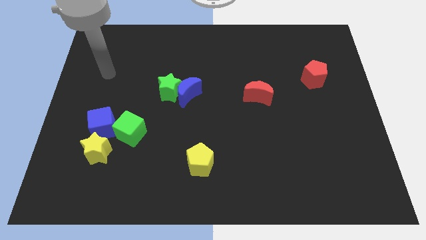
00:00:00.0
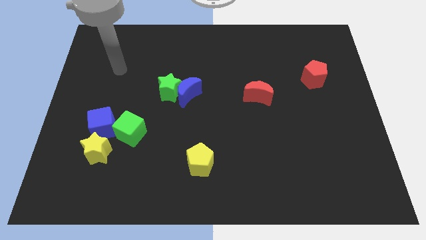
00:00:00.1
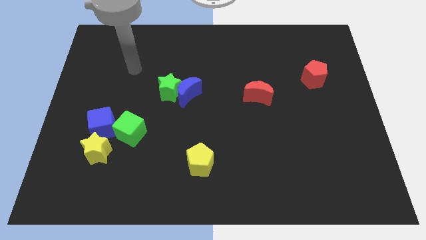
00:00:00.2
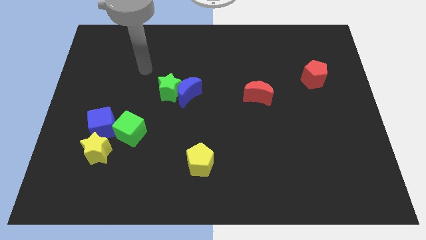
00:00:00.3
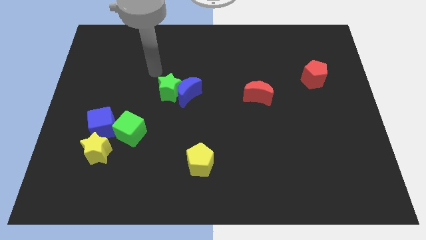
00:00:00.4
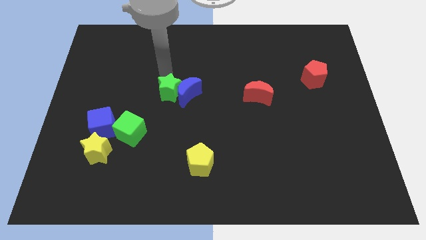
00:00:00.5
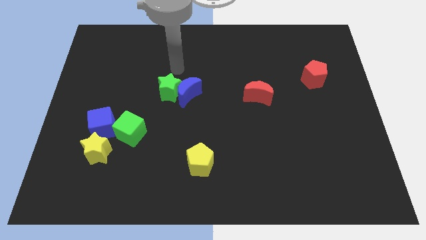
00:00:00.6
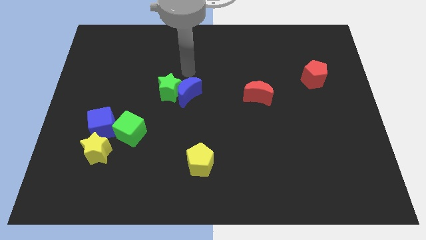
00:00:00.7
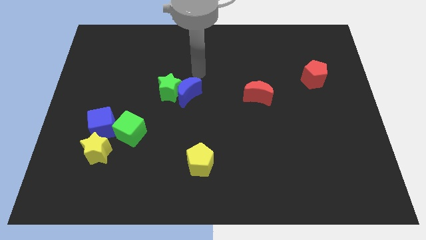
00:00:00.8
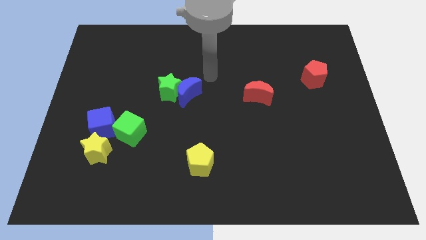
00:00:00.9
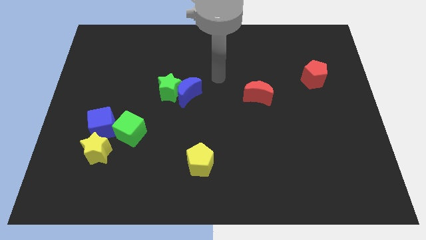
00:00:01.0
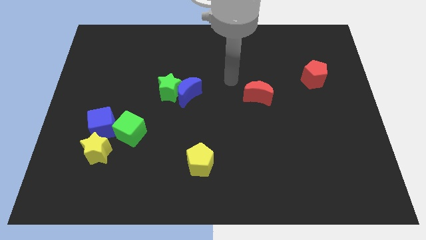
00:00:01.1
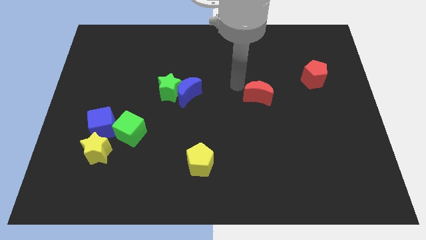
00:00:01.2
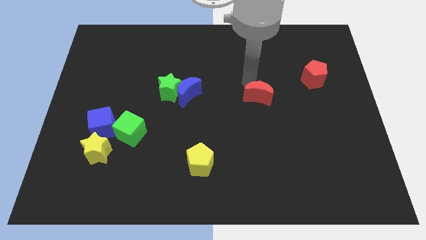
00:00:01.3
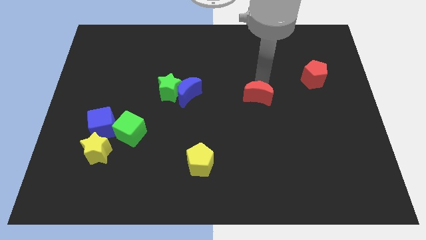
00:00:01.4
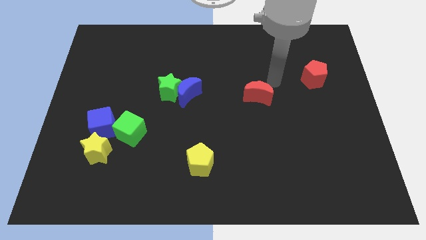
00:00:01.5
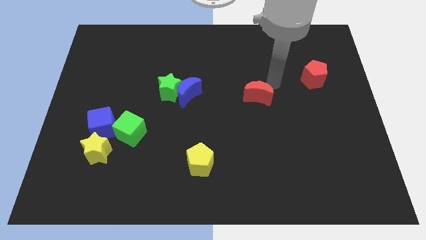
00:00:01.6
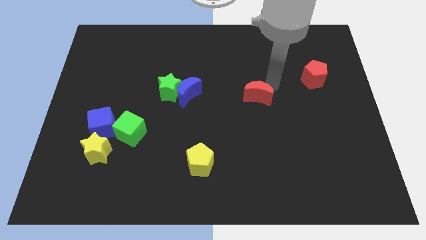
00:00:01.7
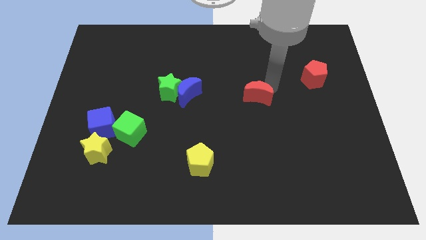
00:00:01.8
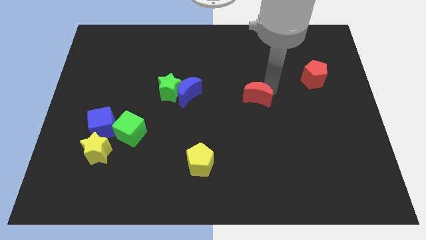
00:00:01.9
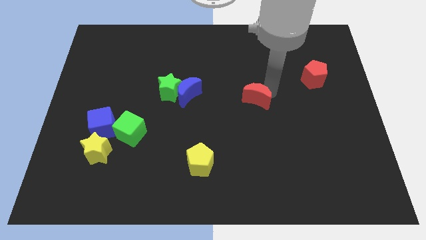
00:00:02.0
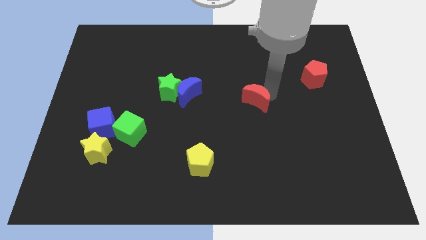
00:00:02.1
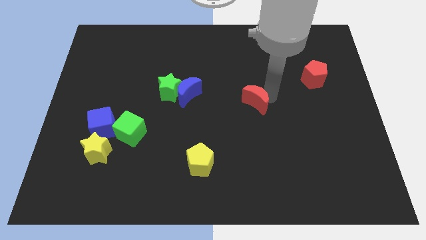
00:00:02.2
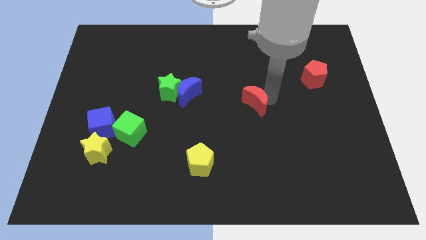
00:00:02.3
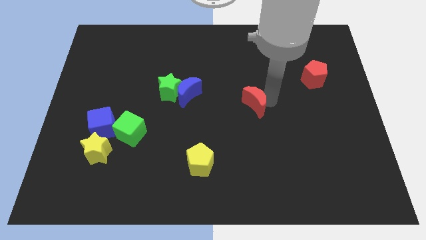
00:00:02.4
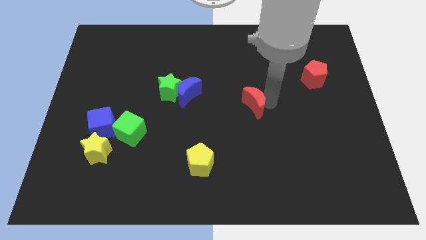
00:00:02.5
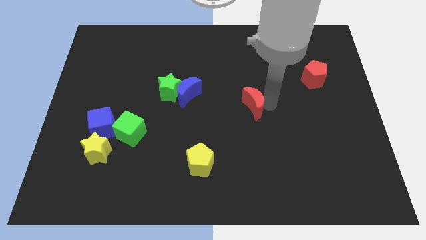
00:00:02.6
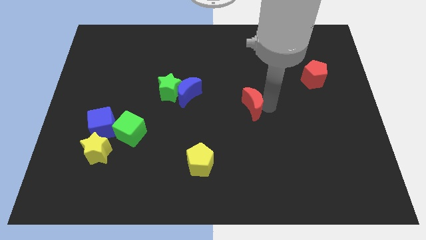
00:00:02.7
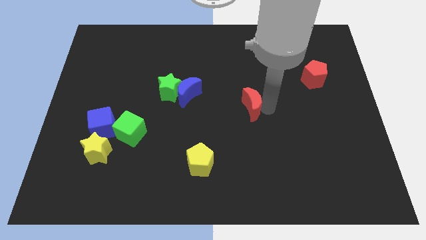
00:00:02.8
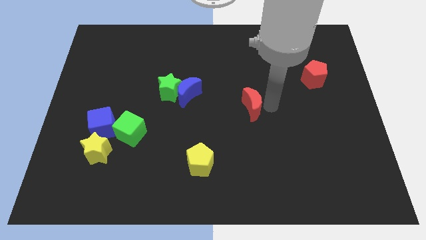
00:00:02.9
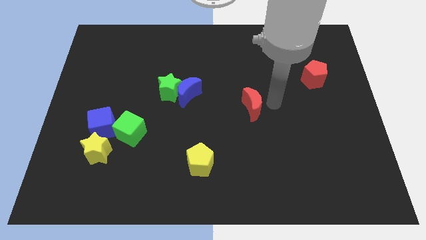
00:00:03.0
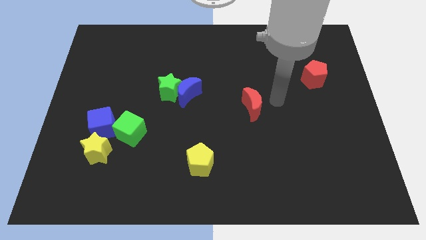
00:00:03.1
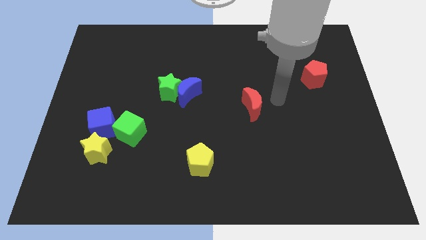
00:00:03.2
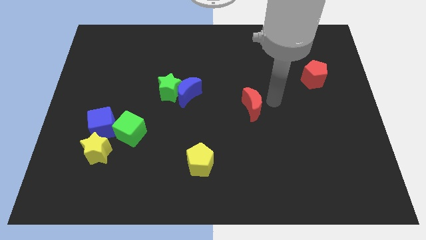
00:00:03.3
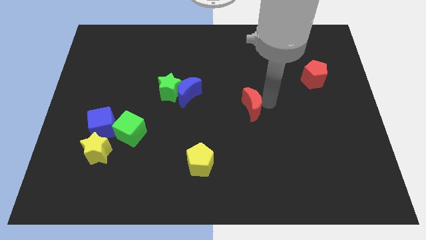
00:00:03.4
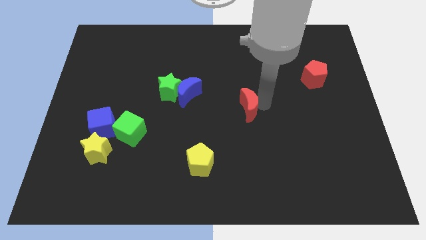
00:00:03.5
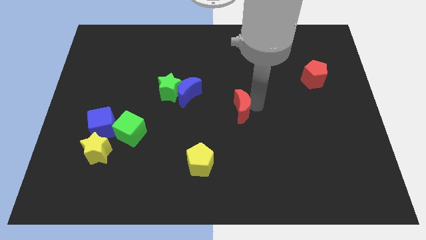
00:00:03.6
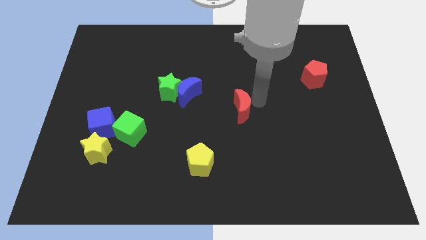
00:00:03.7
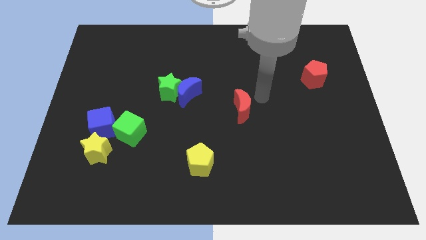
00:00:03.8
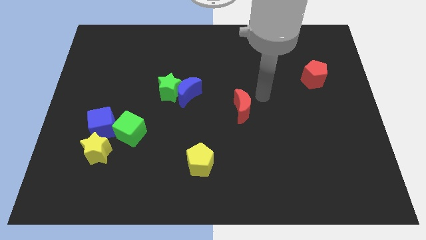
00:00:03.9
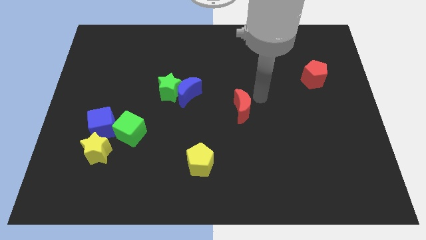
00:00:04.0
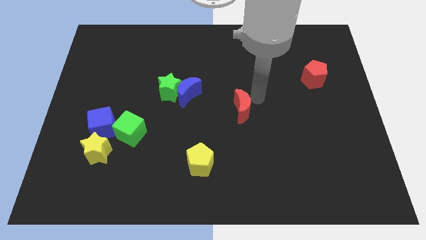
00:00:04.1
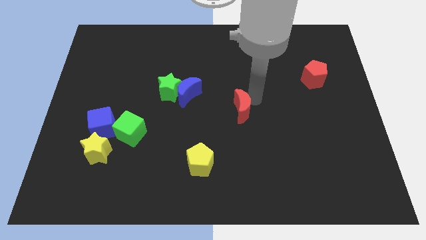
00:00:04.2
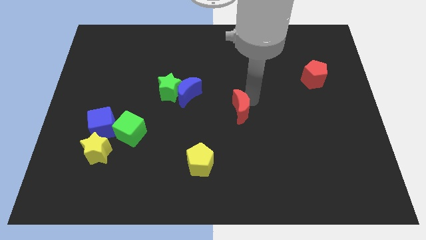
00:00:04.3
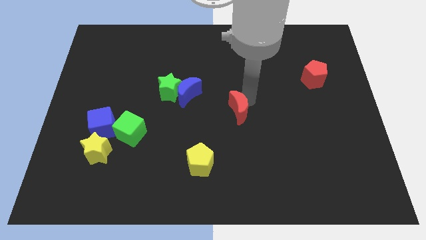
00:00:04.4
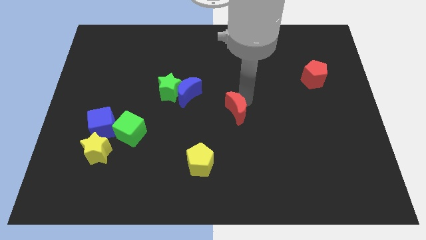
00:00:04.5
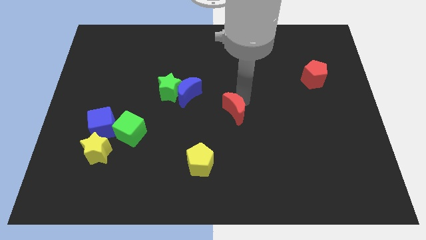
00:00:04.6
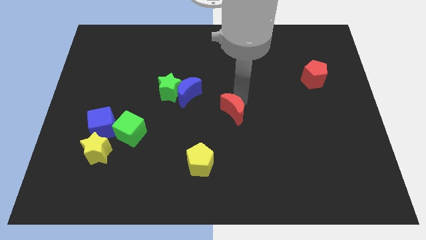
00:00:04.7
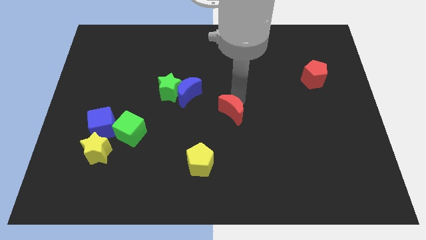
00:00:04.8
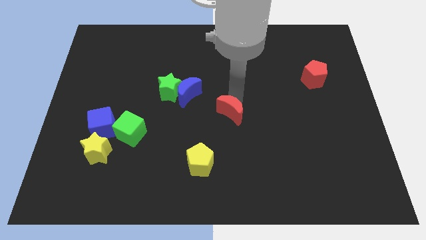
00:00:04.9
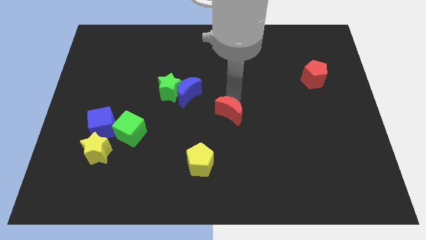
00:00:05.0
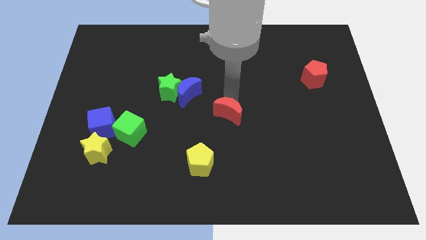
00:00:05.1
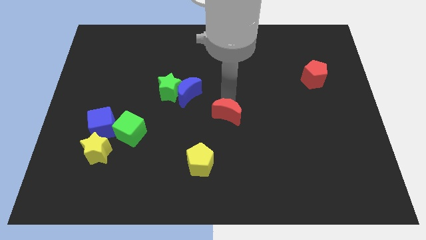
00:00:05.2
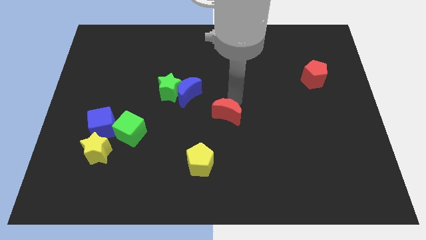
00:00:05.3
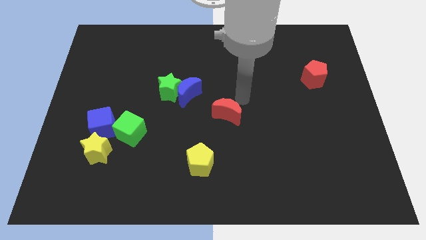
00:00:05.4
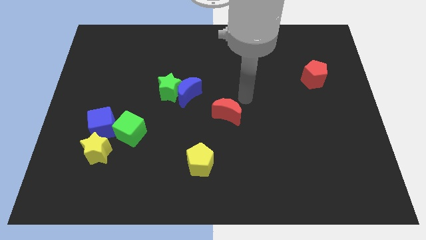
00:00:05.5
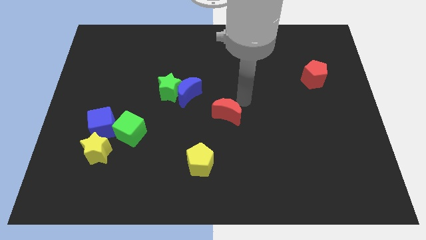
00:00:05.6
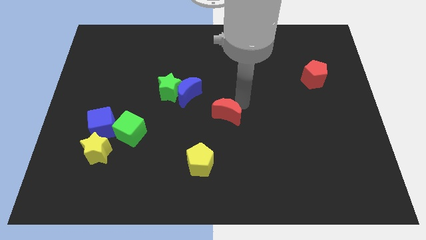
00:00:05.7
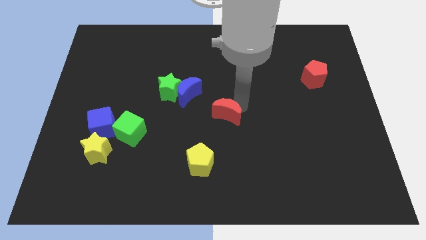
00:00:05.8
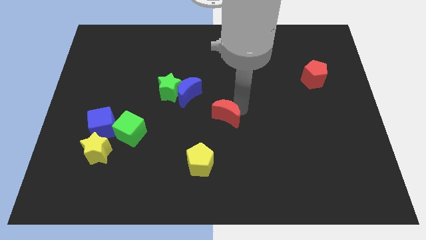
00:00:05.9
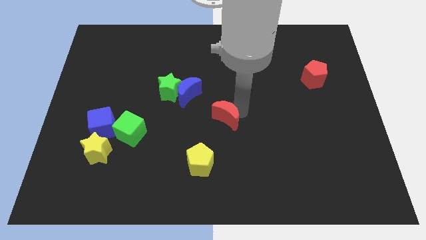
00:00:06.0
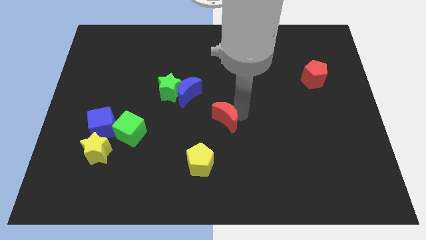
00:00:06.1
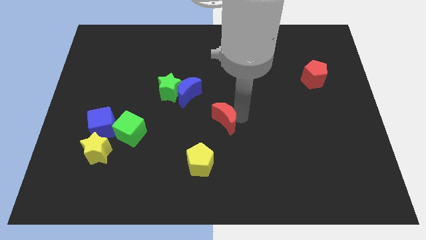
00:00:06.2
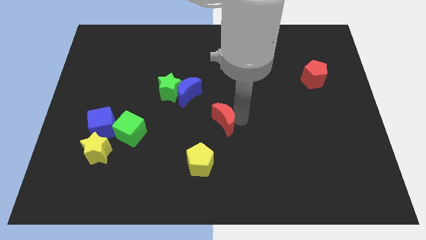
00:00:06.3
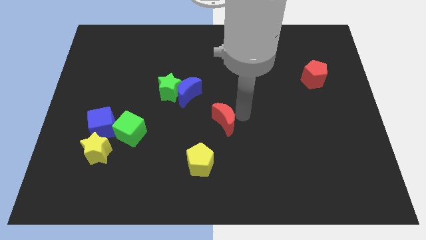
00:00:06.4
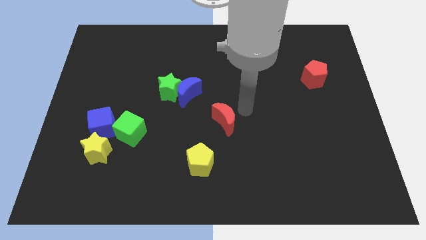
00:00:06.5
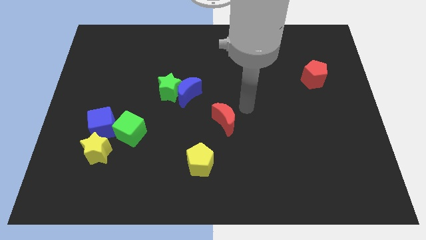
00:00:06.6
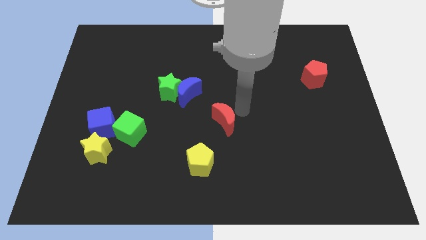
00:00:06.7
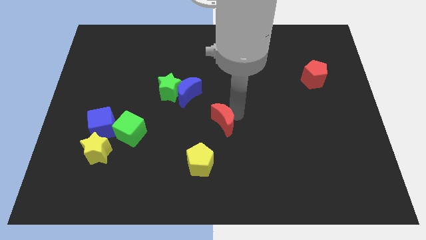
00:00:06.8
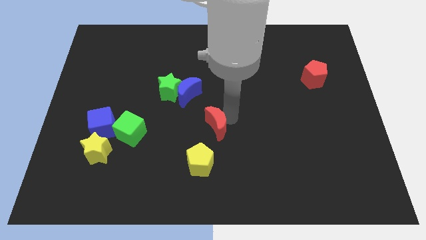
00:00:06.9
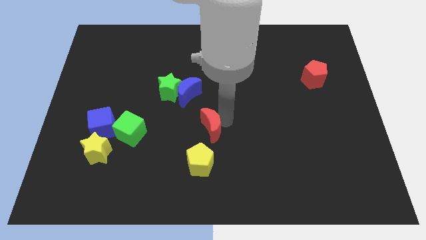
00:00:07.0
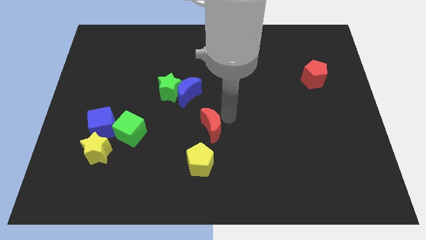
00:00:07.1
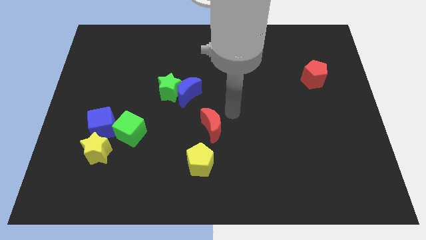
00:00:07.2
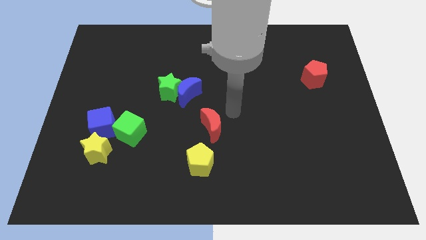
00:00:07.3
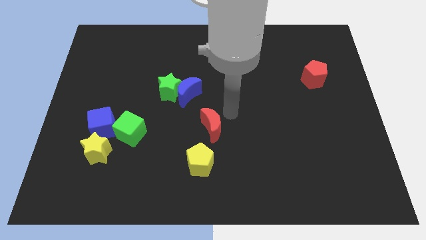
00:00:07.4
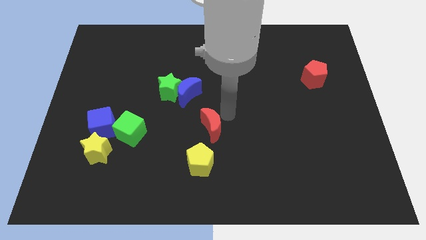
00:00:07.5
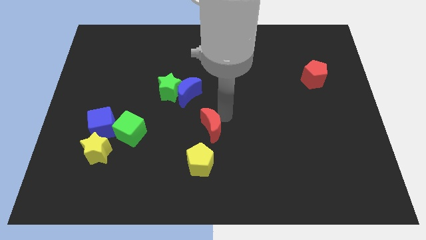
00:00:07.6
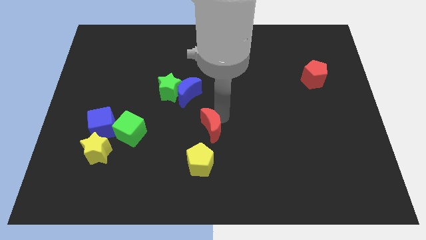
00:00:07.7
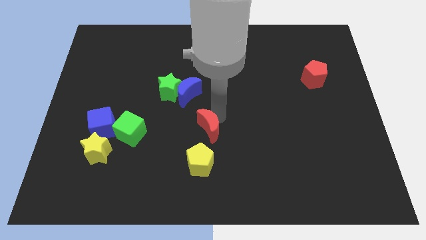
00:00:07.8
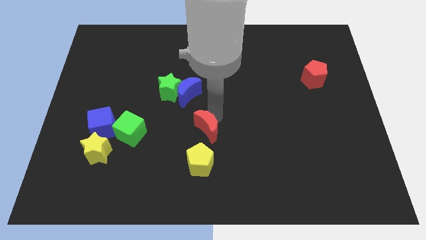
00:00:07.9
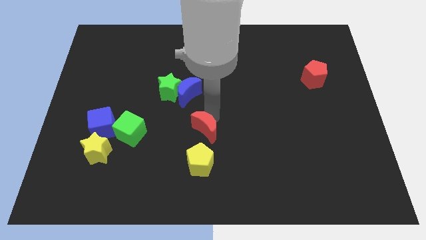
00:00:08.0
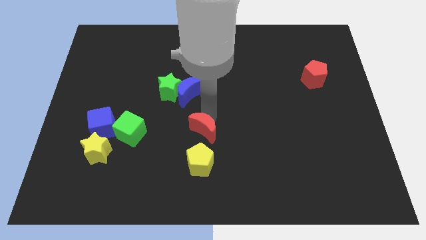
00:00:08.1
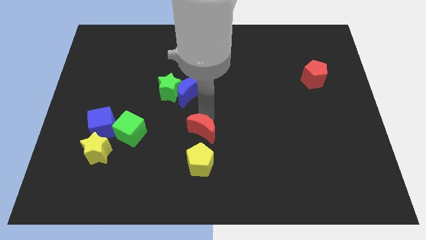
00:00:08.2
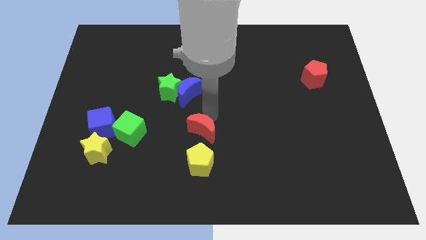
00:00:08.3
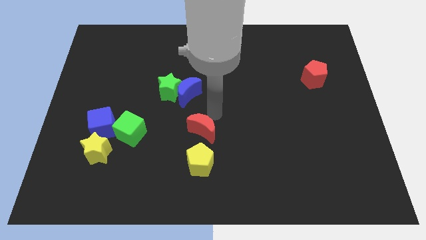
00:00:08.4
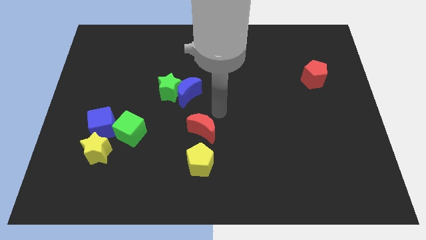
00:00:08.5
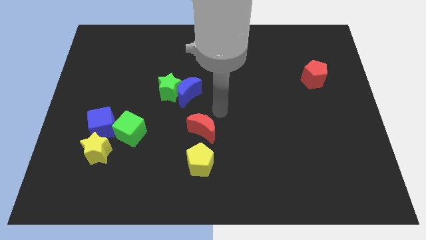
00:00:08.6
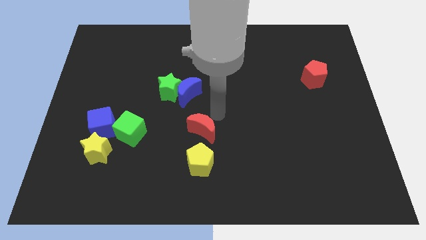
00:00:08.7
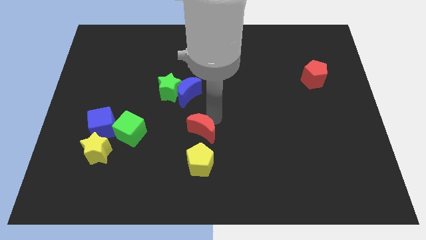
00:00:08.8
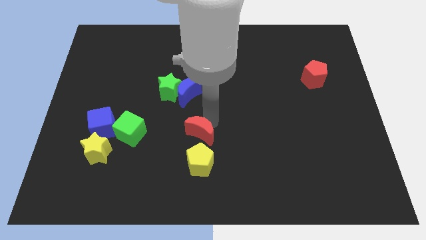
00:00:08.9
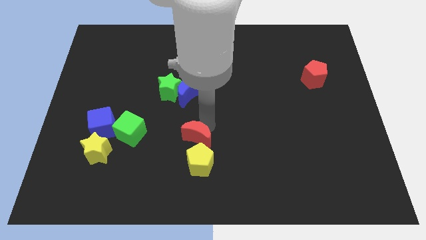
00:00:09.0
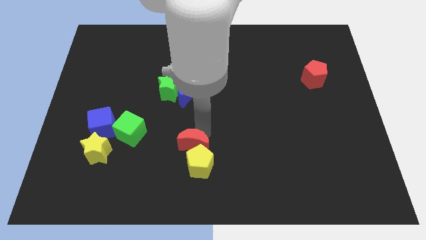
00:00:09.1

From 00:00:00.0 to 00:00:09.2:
push the red moon downwards and left
